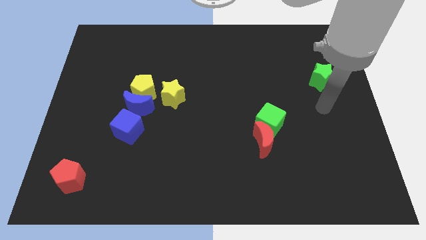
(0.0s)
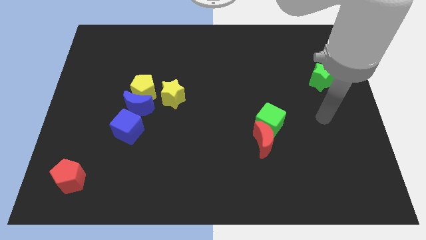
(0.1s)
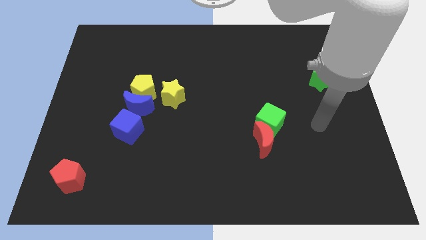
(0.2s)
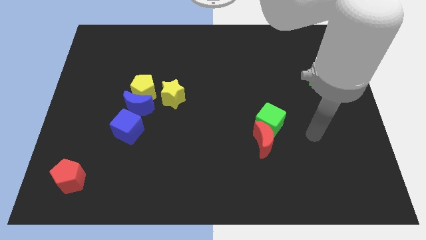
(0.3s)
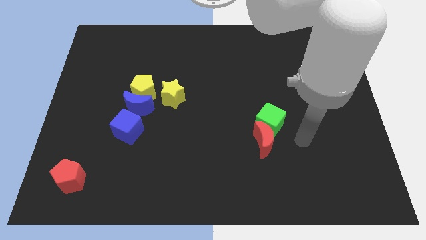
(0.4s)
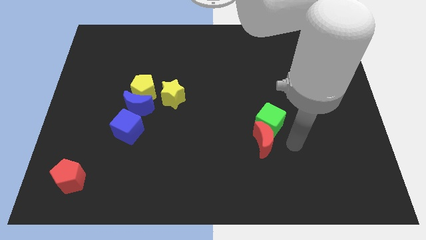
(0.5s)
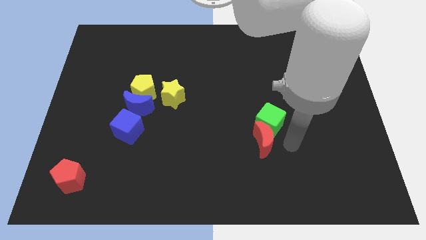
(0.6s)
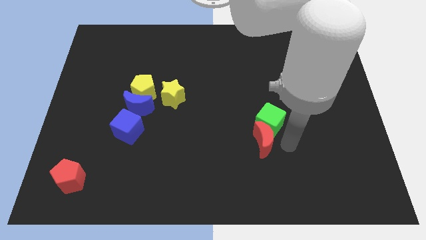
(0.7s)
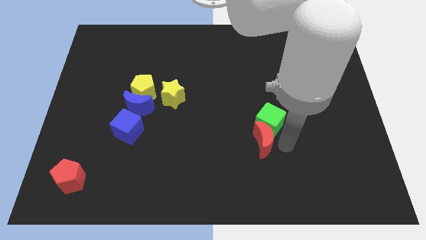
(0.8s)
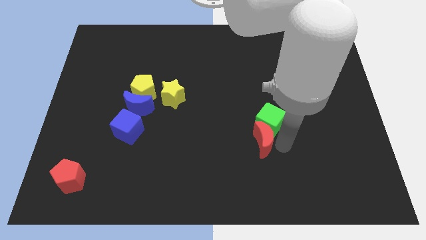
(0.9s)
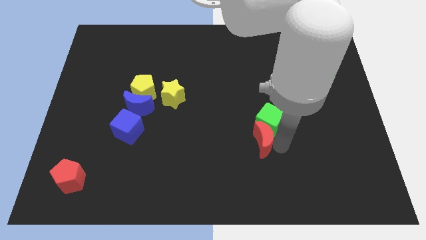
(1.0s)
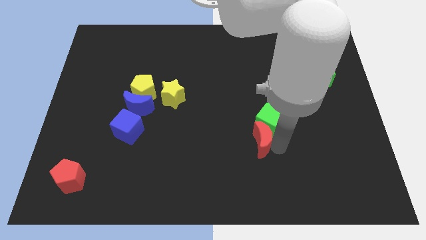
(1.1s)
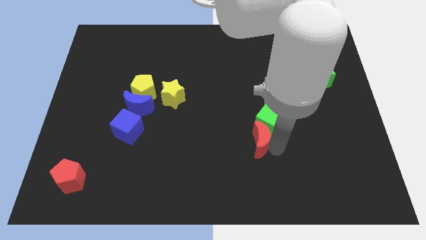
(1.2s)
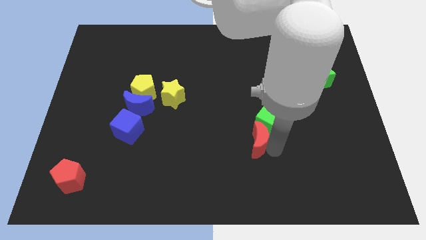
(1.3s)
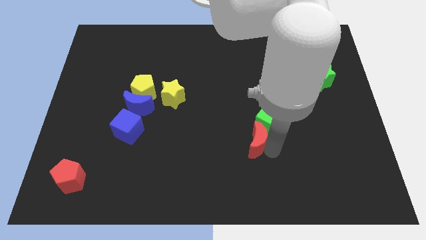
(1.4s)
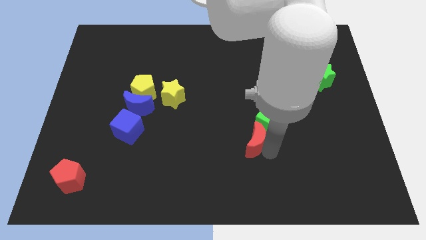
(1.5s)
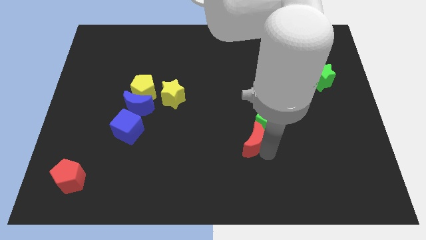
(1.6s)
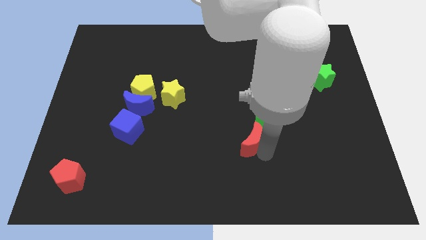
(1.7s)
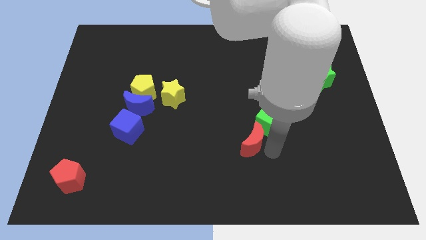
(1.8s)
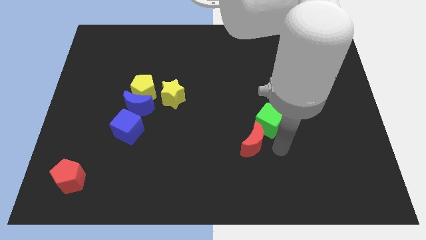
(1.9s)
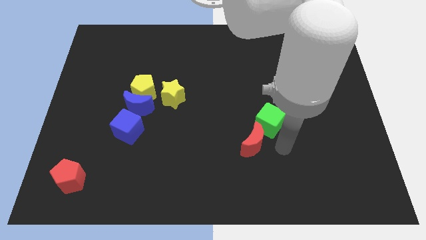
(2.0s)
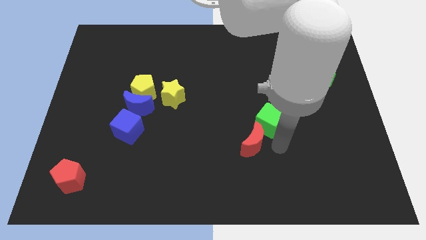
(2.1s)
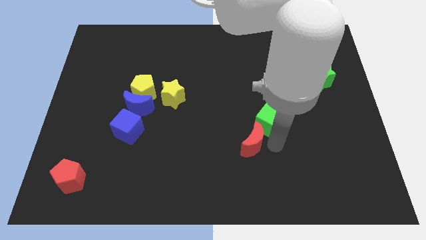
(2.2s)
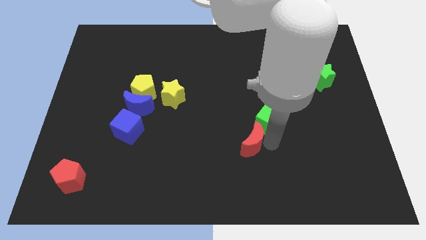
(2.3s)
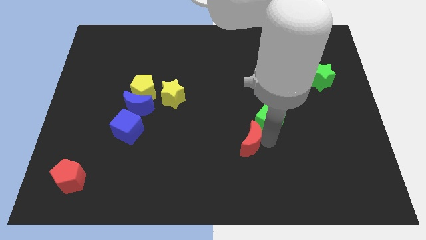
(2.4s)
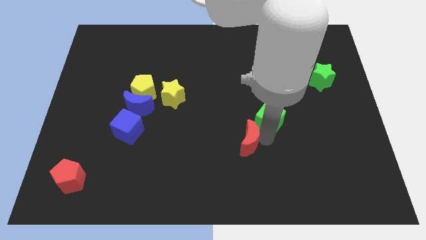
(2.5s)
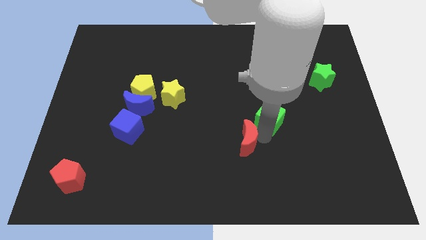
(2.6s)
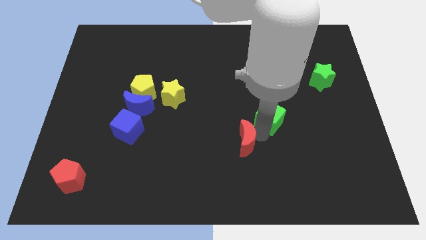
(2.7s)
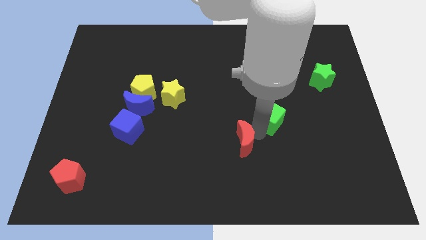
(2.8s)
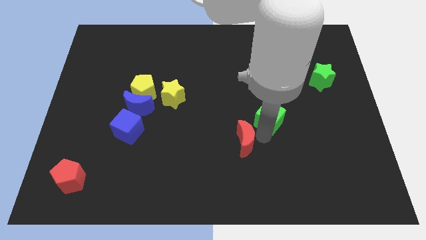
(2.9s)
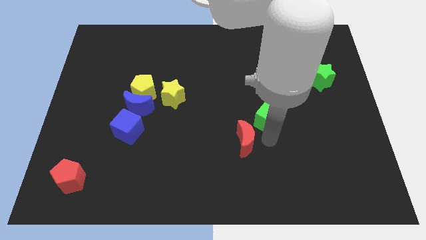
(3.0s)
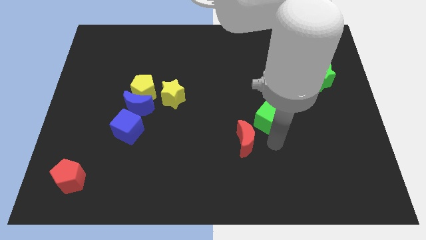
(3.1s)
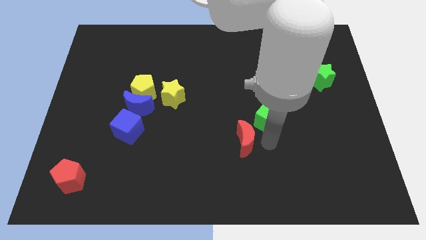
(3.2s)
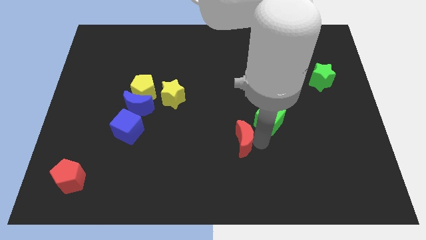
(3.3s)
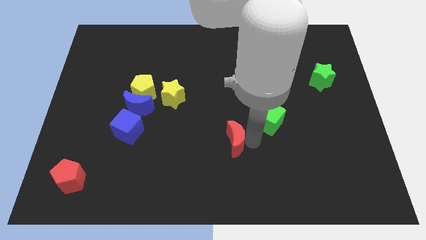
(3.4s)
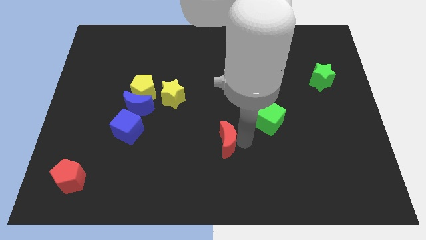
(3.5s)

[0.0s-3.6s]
move the red moon to the left a bit

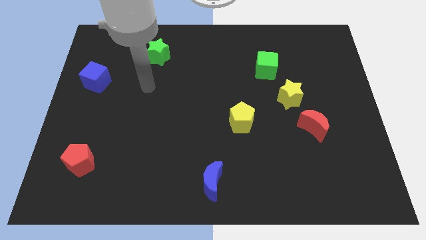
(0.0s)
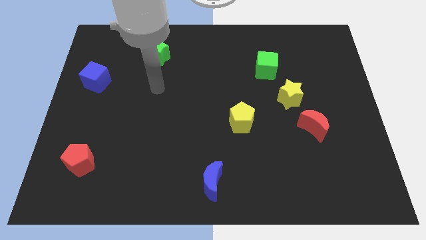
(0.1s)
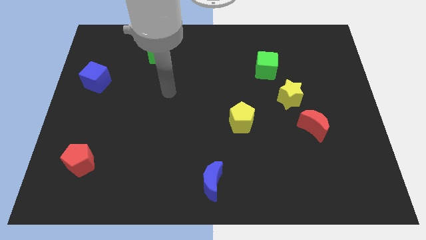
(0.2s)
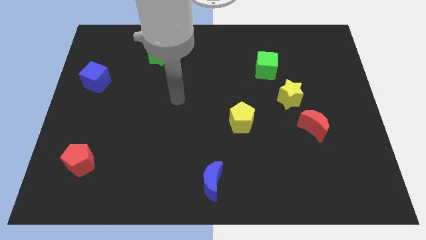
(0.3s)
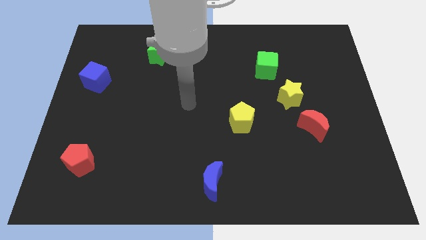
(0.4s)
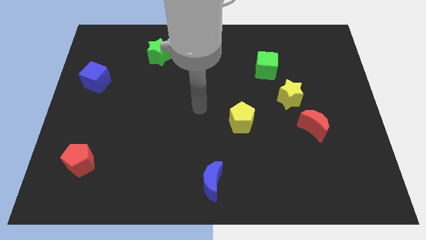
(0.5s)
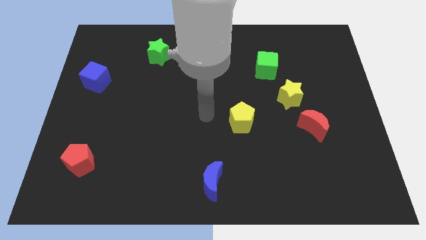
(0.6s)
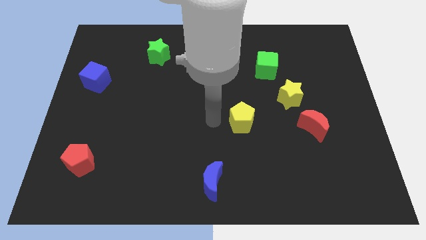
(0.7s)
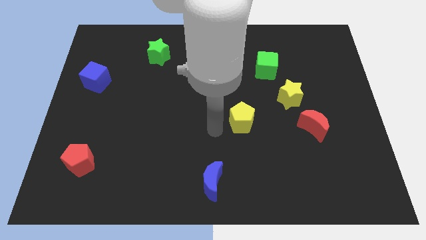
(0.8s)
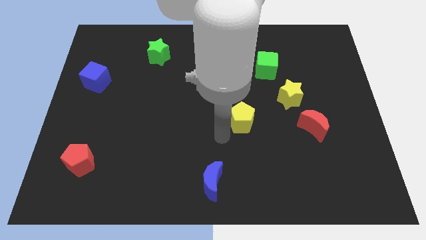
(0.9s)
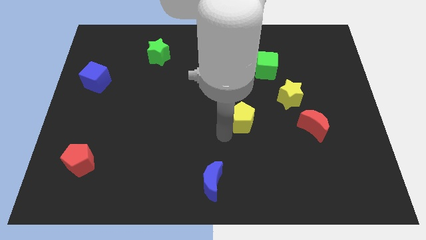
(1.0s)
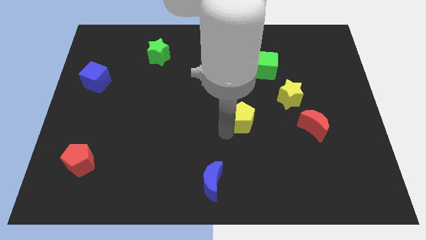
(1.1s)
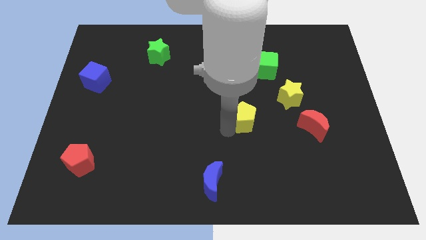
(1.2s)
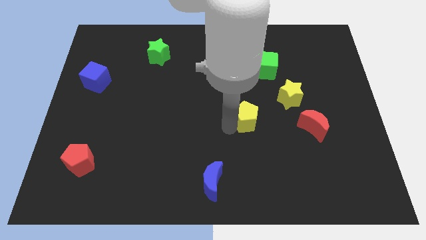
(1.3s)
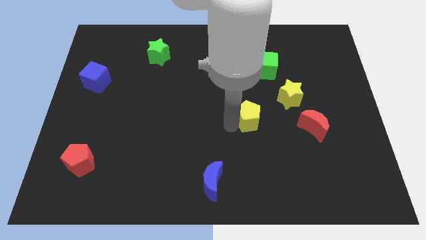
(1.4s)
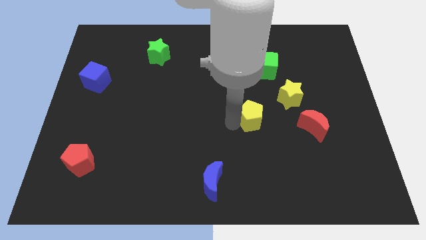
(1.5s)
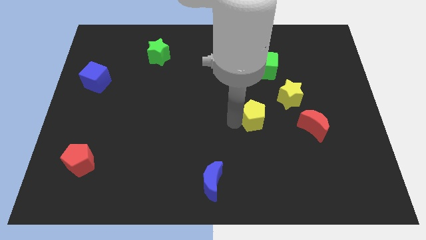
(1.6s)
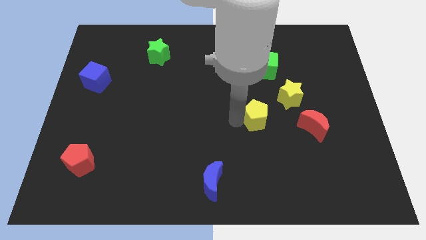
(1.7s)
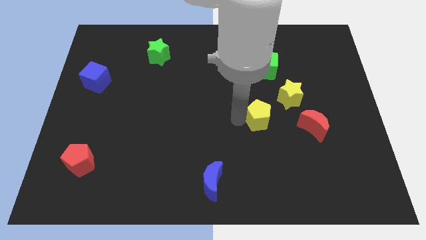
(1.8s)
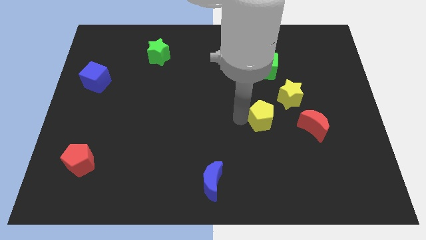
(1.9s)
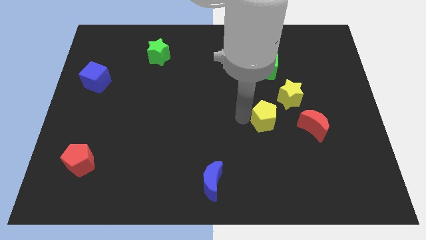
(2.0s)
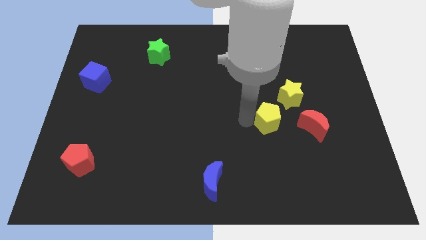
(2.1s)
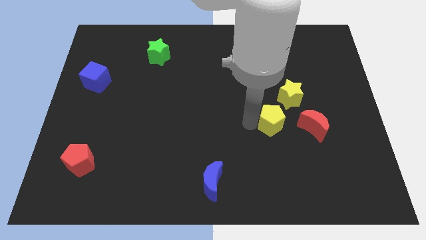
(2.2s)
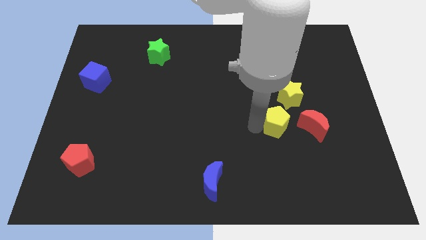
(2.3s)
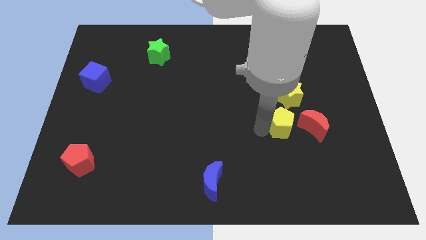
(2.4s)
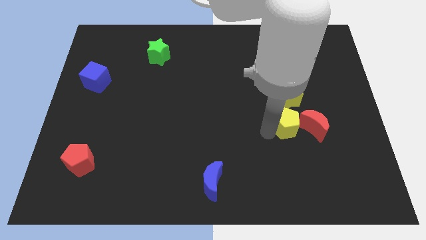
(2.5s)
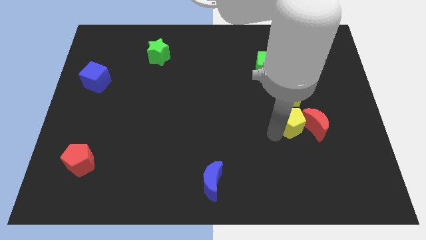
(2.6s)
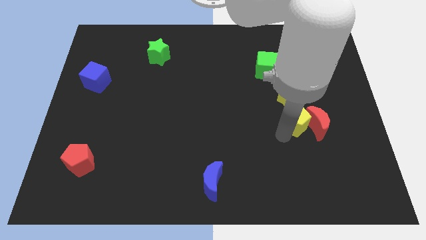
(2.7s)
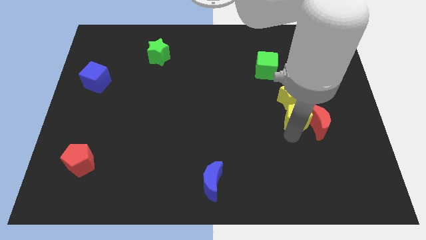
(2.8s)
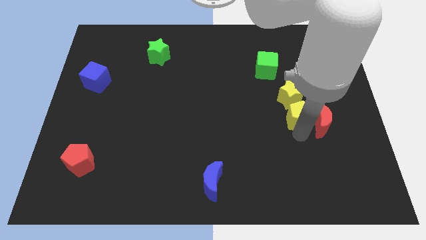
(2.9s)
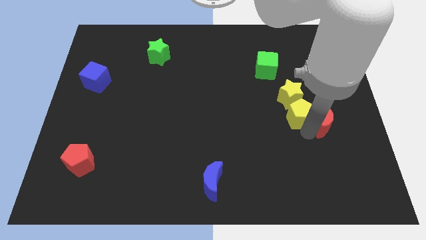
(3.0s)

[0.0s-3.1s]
push the yellow pentagon up and to the right diagonally a bit

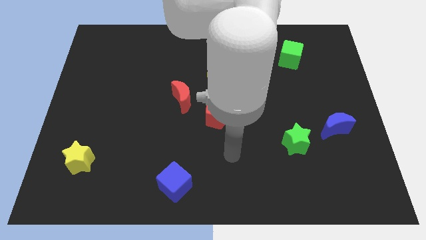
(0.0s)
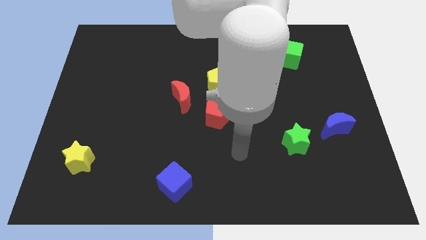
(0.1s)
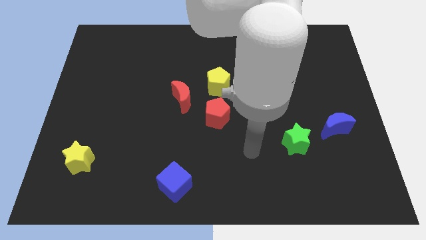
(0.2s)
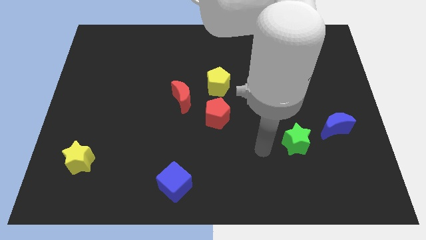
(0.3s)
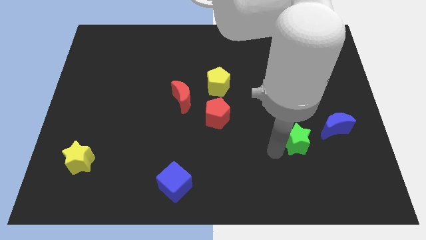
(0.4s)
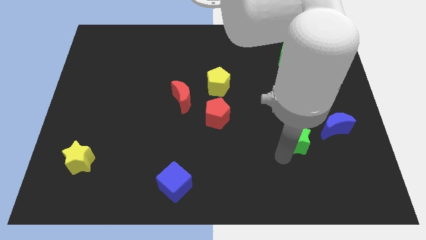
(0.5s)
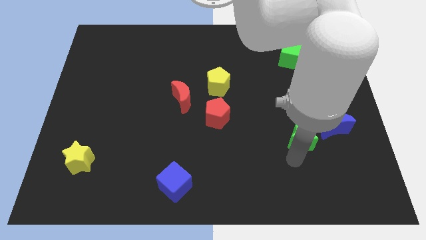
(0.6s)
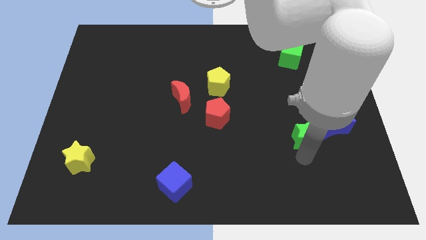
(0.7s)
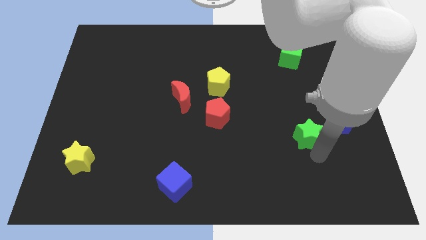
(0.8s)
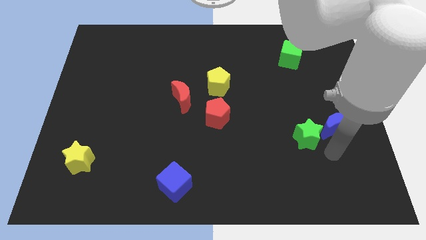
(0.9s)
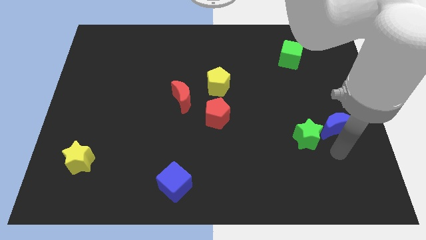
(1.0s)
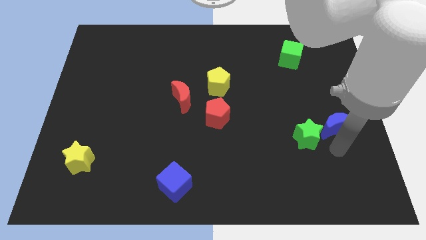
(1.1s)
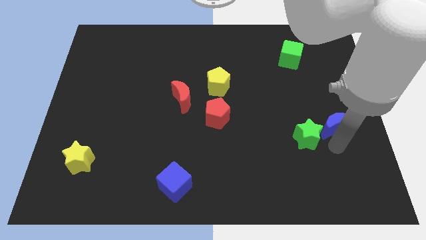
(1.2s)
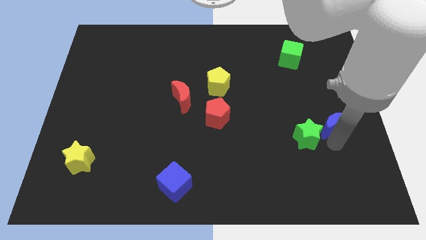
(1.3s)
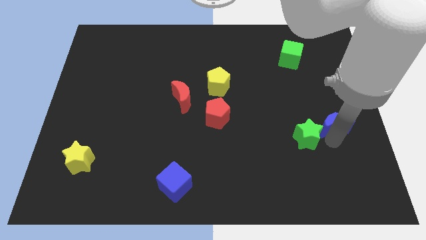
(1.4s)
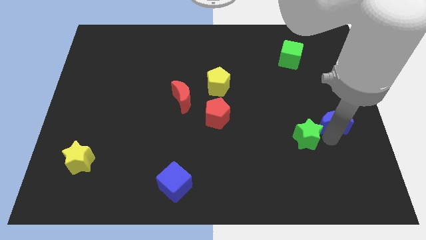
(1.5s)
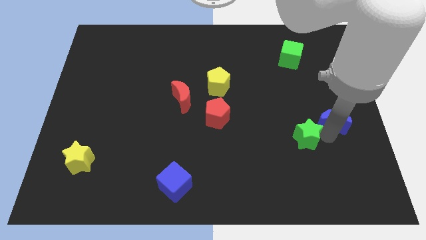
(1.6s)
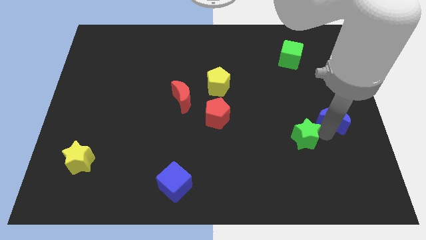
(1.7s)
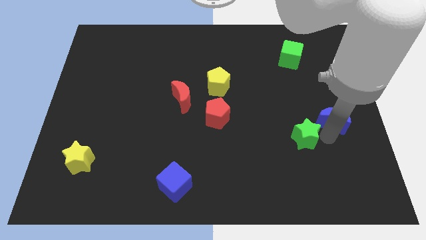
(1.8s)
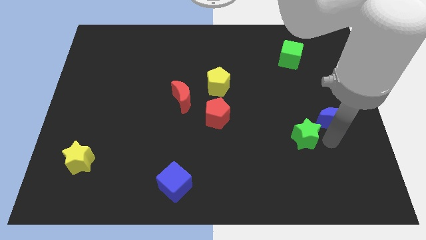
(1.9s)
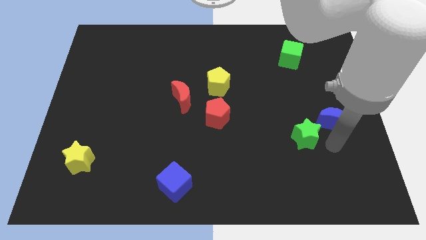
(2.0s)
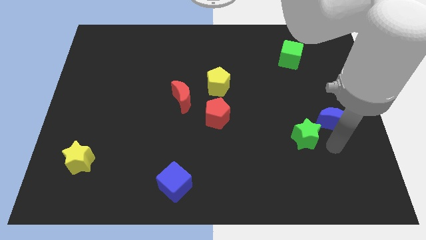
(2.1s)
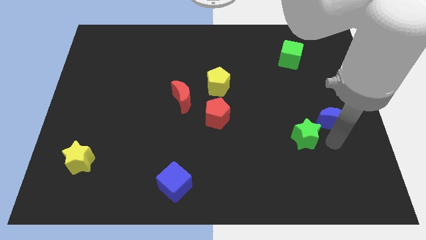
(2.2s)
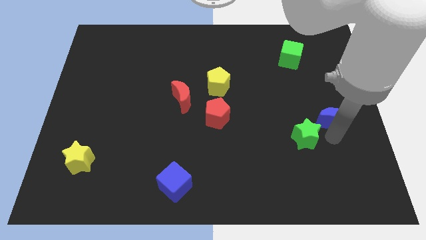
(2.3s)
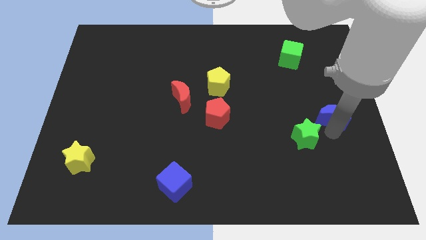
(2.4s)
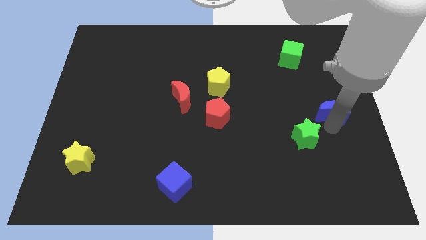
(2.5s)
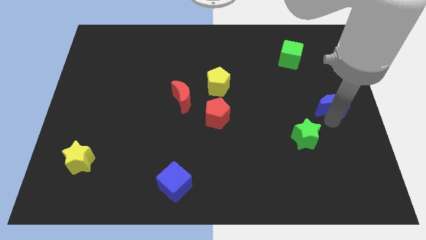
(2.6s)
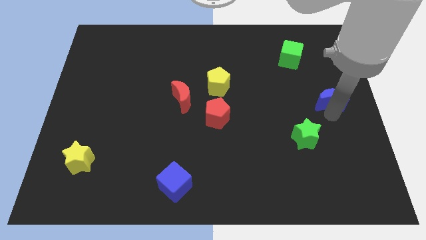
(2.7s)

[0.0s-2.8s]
push the blue moon somewhat upwards
